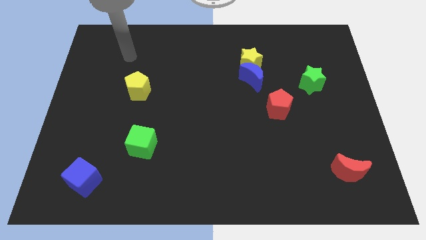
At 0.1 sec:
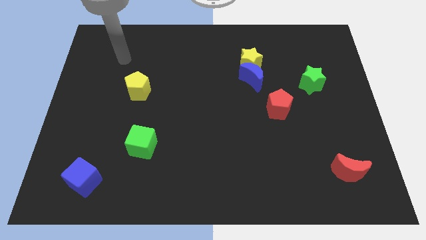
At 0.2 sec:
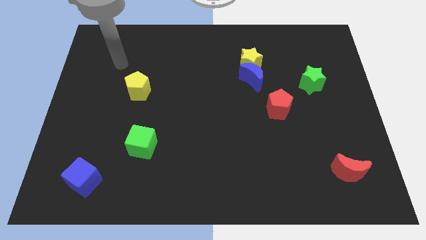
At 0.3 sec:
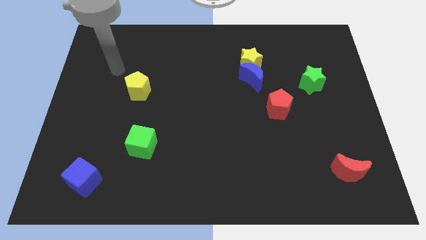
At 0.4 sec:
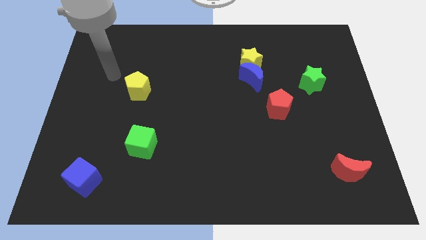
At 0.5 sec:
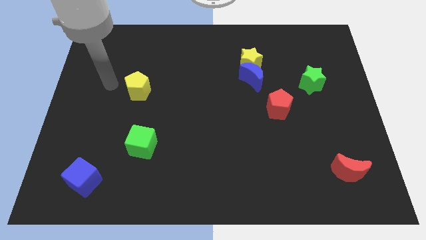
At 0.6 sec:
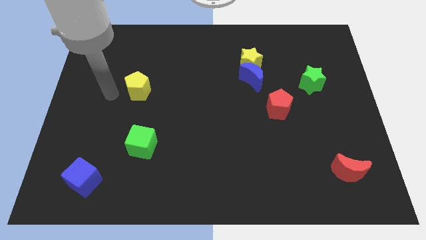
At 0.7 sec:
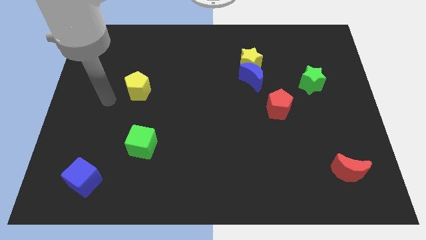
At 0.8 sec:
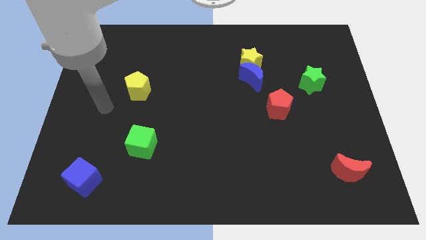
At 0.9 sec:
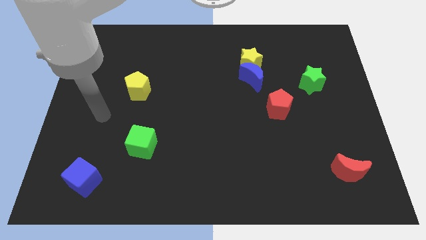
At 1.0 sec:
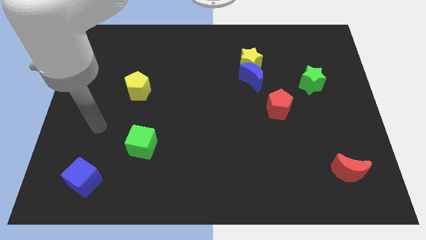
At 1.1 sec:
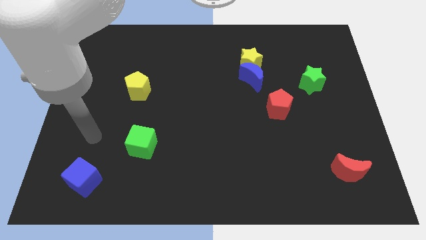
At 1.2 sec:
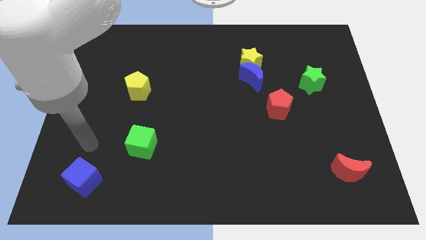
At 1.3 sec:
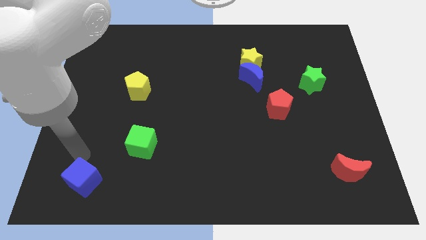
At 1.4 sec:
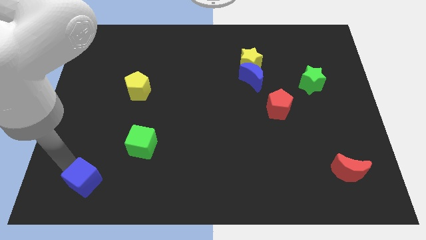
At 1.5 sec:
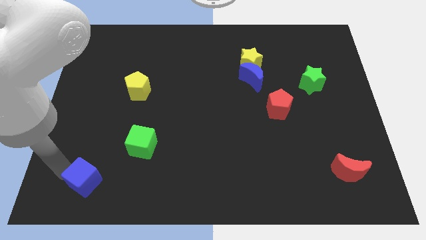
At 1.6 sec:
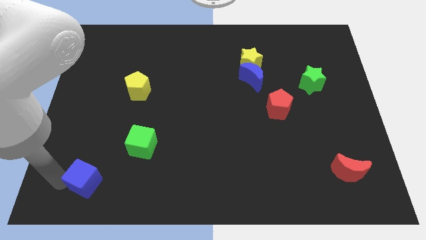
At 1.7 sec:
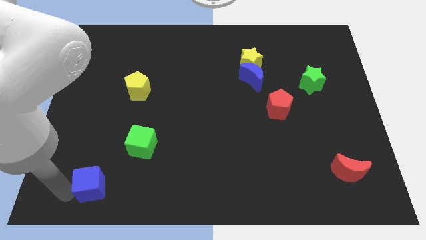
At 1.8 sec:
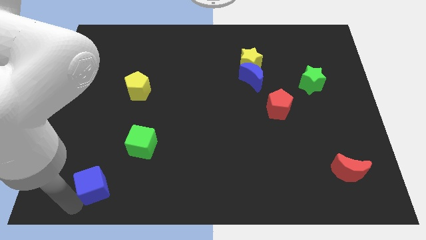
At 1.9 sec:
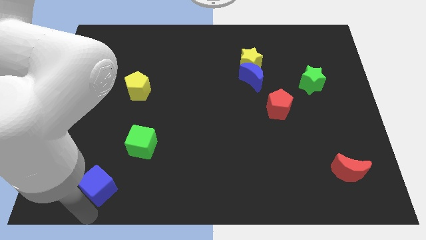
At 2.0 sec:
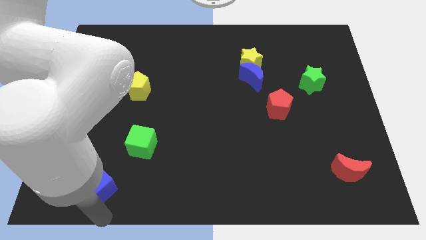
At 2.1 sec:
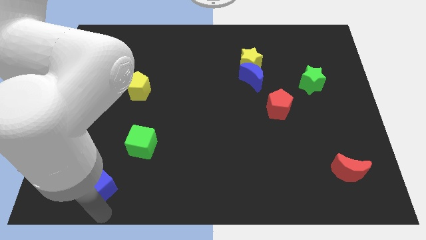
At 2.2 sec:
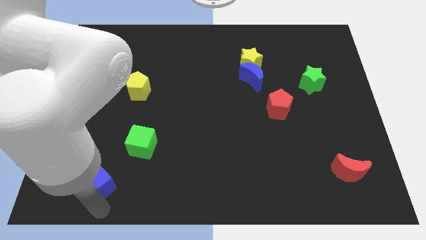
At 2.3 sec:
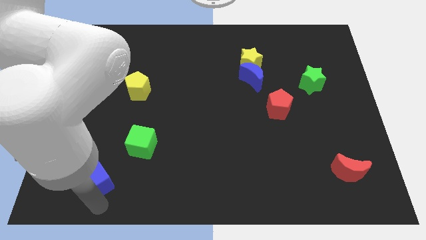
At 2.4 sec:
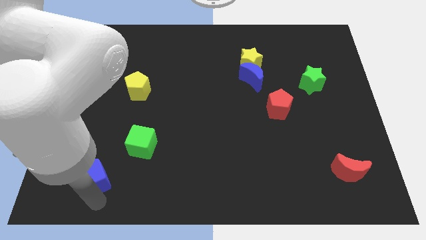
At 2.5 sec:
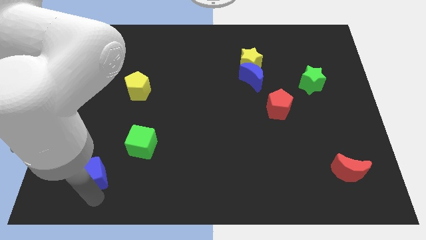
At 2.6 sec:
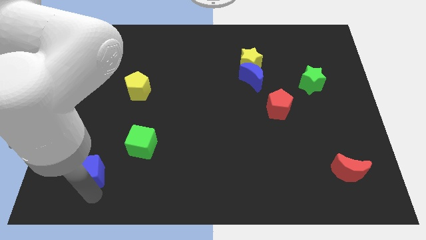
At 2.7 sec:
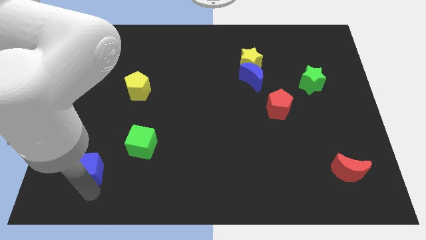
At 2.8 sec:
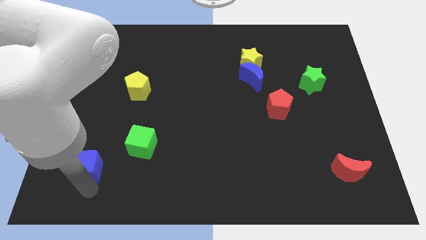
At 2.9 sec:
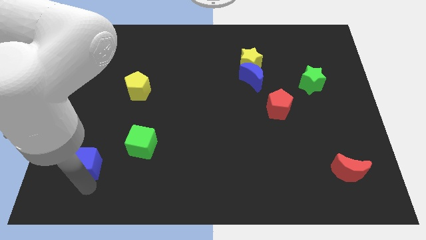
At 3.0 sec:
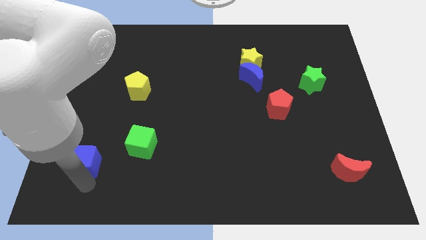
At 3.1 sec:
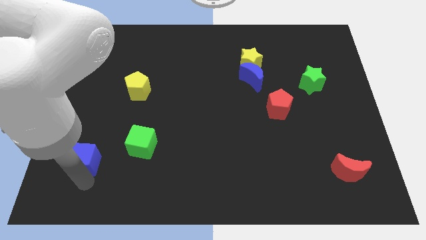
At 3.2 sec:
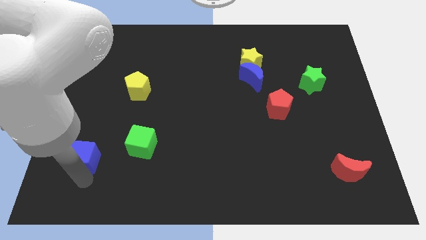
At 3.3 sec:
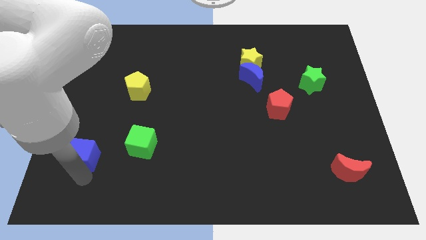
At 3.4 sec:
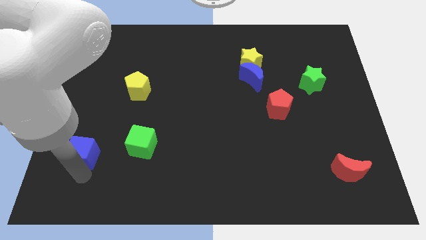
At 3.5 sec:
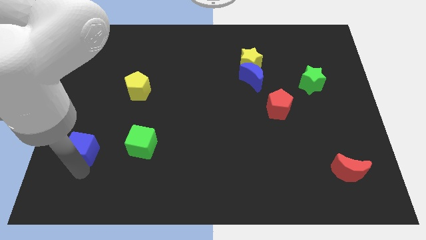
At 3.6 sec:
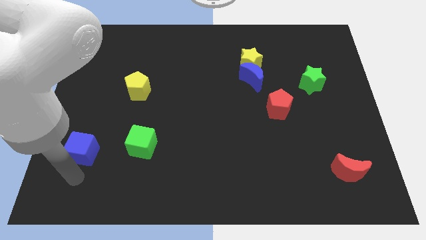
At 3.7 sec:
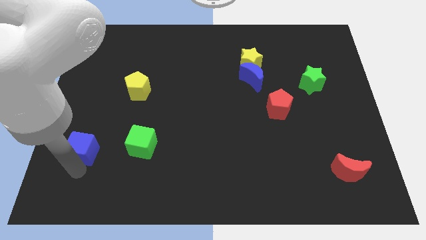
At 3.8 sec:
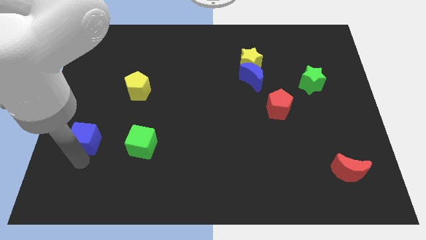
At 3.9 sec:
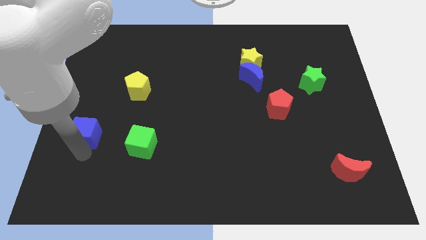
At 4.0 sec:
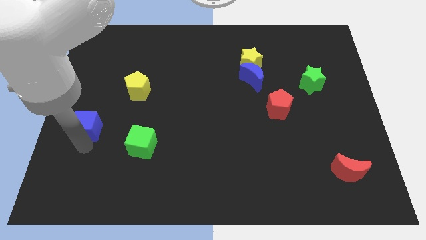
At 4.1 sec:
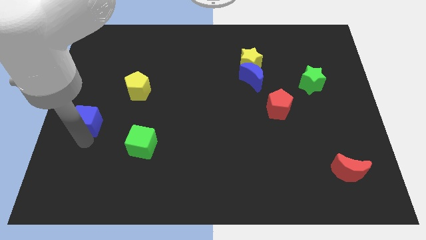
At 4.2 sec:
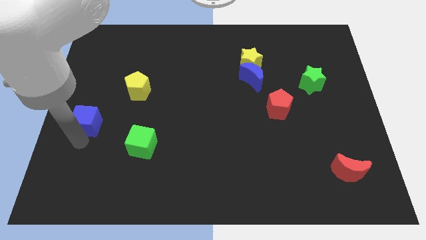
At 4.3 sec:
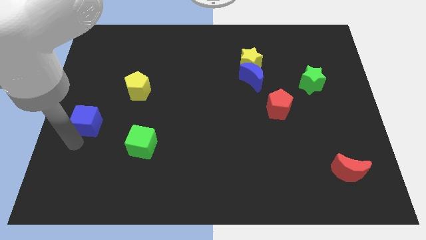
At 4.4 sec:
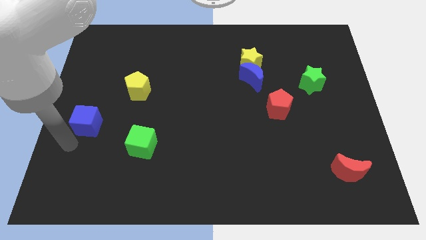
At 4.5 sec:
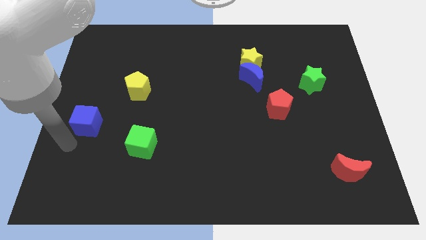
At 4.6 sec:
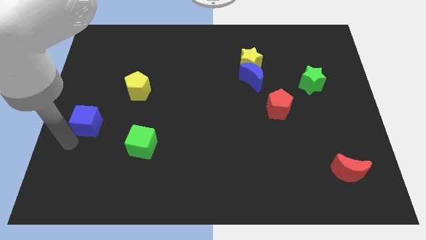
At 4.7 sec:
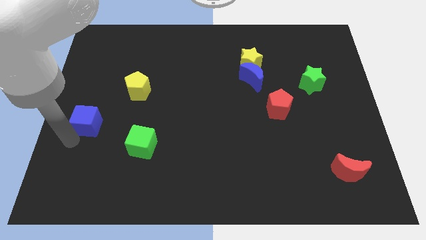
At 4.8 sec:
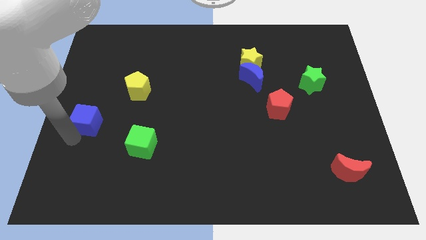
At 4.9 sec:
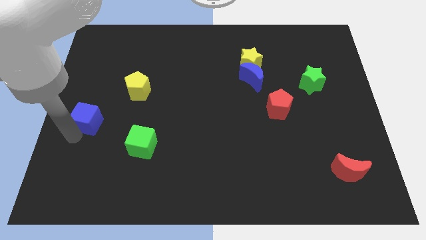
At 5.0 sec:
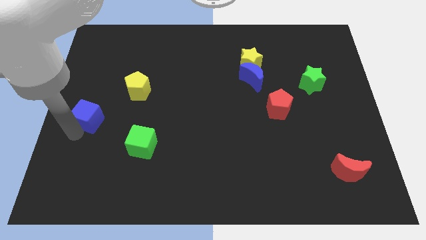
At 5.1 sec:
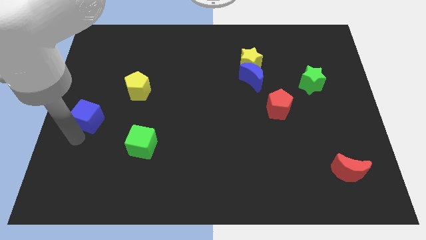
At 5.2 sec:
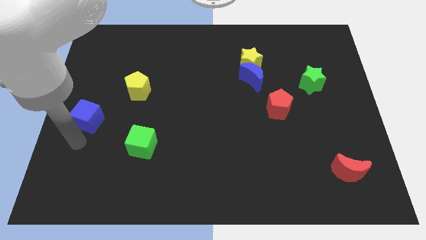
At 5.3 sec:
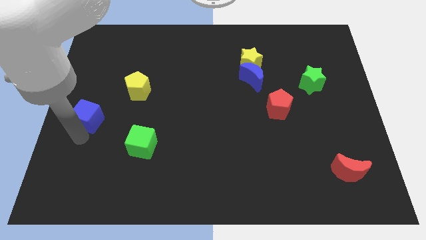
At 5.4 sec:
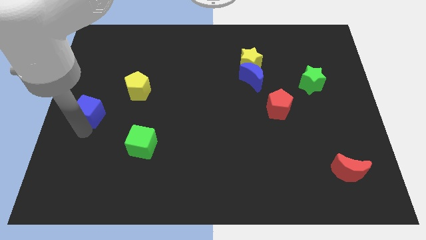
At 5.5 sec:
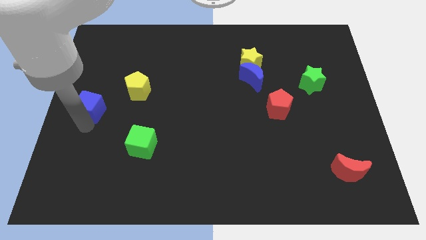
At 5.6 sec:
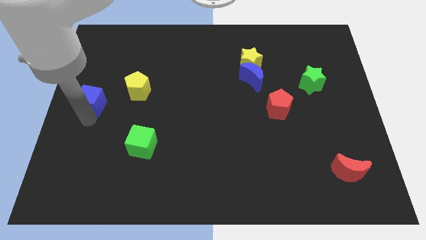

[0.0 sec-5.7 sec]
put the blue cube just left of the yellow pentagon

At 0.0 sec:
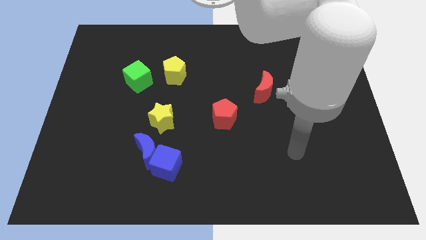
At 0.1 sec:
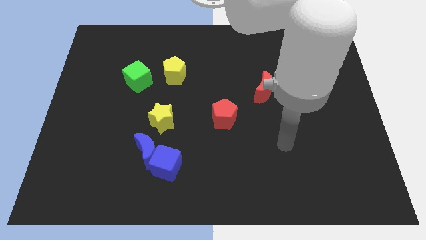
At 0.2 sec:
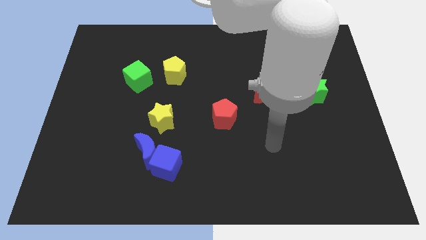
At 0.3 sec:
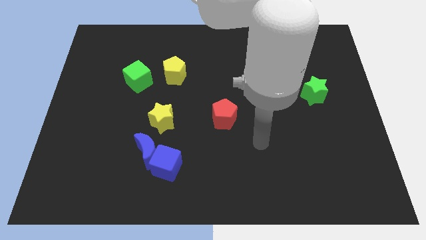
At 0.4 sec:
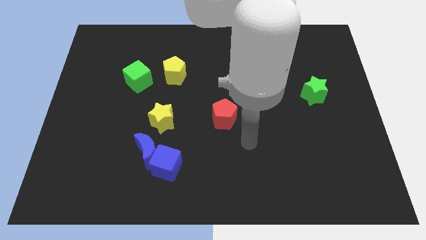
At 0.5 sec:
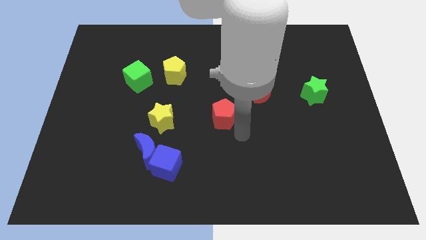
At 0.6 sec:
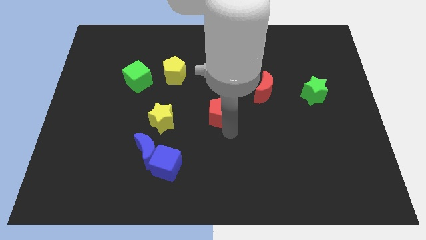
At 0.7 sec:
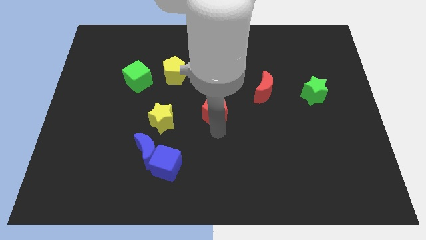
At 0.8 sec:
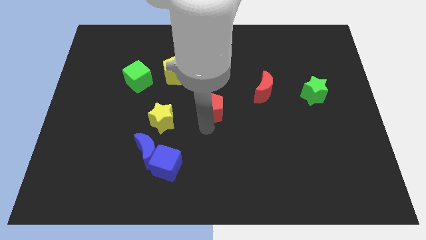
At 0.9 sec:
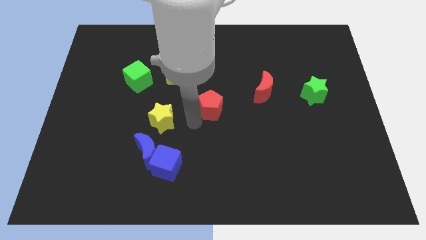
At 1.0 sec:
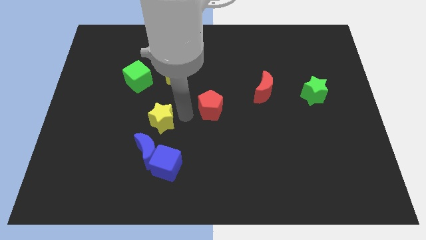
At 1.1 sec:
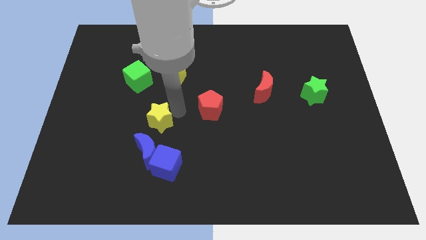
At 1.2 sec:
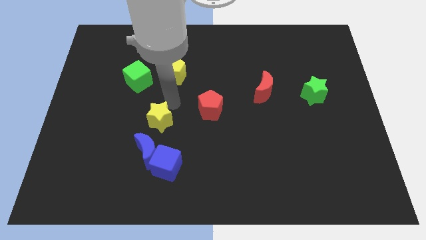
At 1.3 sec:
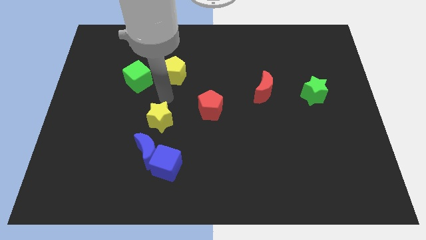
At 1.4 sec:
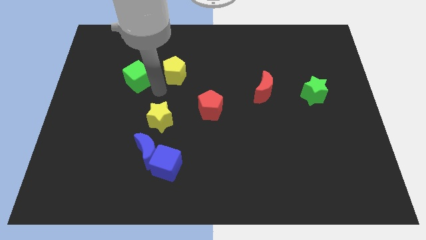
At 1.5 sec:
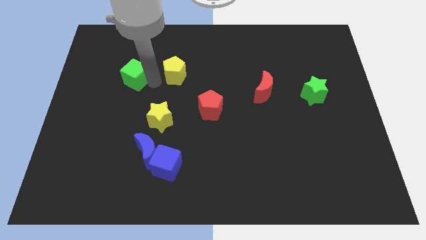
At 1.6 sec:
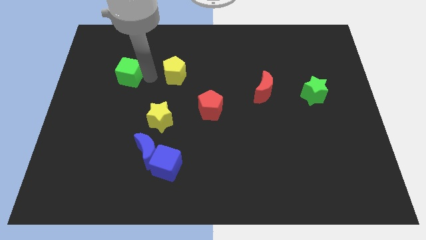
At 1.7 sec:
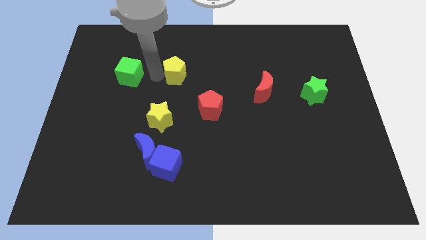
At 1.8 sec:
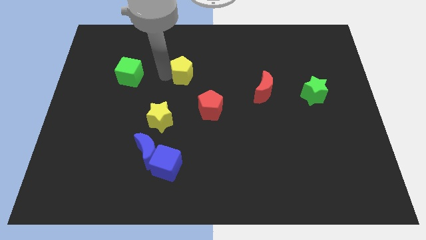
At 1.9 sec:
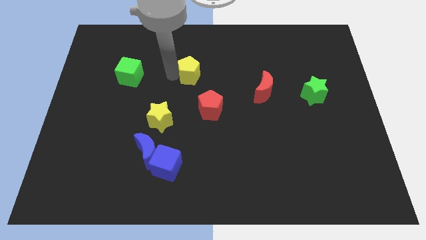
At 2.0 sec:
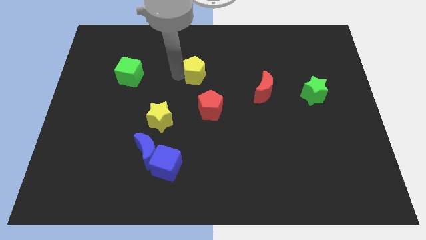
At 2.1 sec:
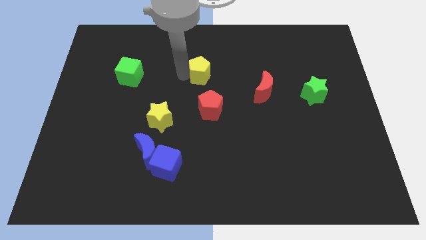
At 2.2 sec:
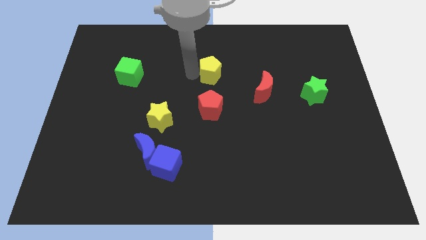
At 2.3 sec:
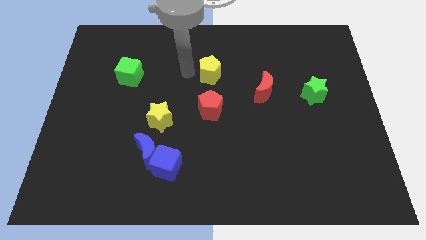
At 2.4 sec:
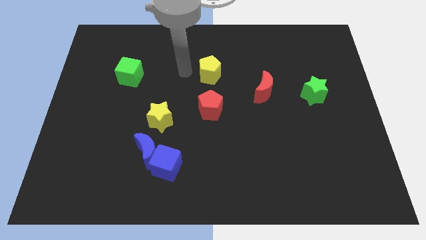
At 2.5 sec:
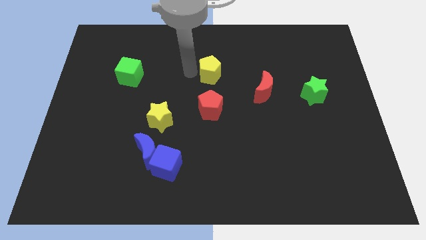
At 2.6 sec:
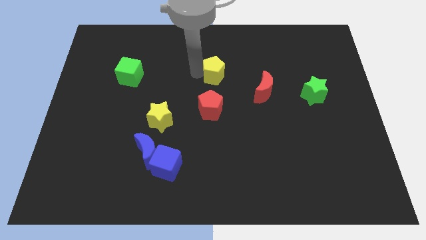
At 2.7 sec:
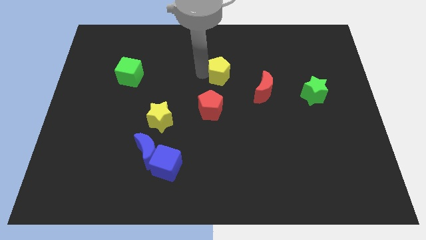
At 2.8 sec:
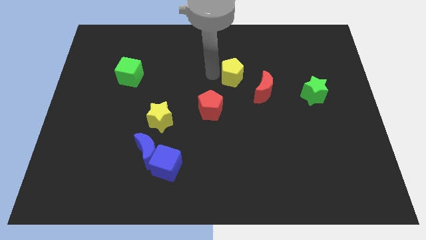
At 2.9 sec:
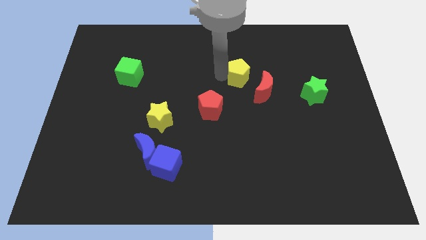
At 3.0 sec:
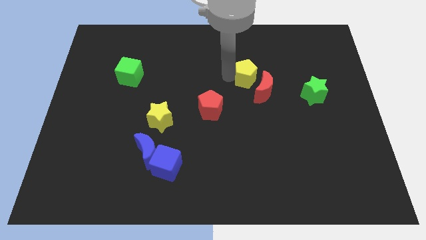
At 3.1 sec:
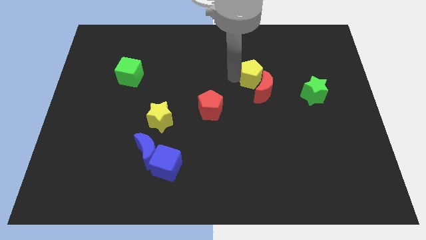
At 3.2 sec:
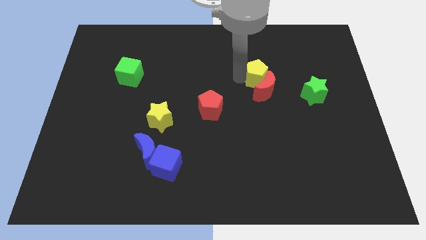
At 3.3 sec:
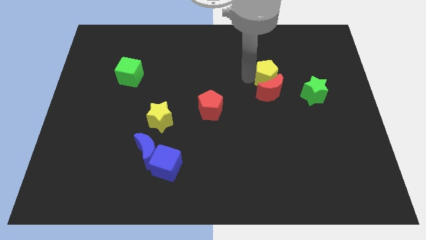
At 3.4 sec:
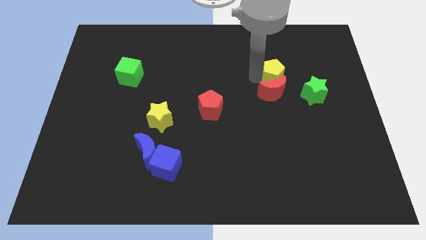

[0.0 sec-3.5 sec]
slide the yellow pentagon to the top left side of the green star
